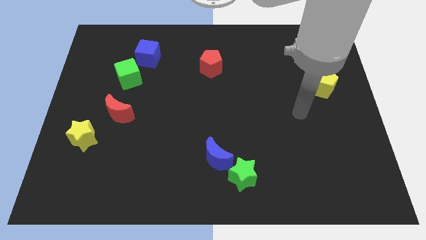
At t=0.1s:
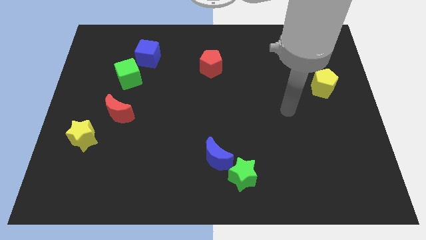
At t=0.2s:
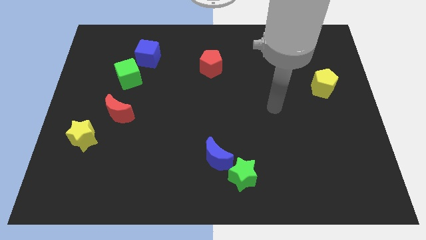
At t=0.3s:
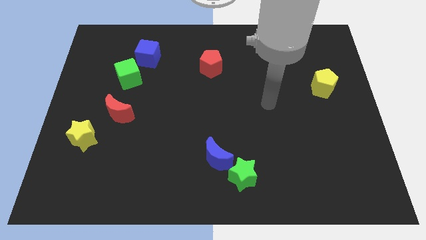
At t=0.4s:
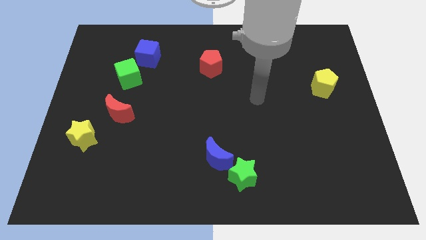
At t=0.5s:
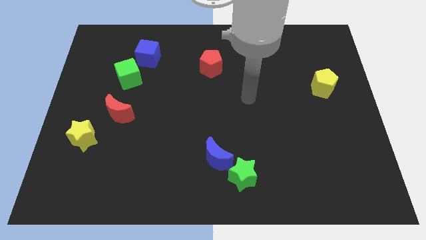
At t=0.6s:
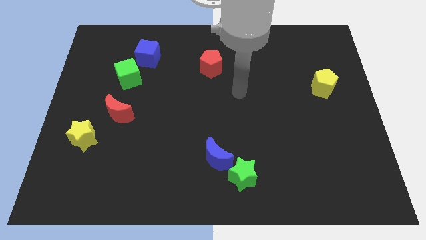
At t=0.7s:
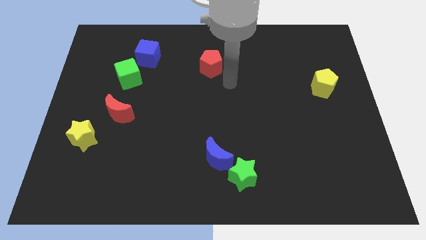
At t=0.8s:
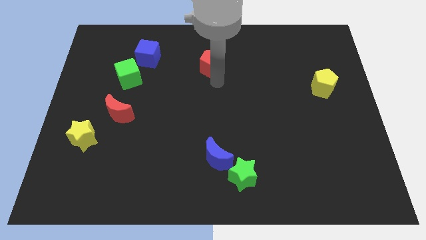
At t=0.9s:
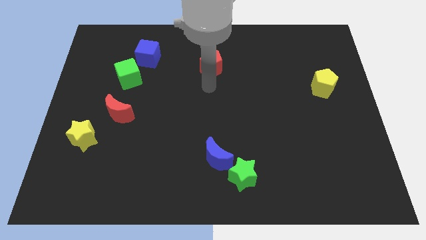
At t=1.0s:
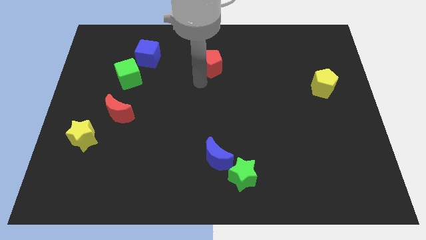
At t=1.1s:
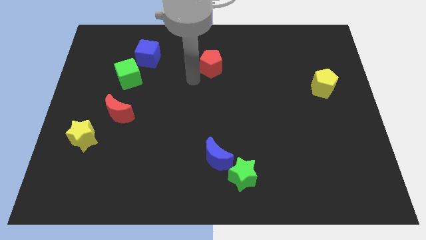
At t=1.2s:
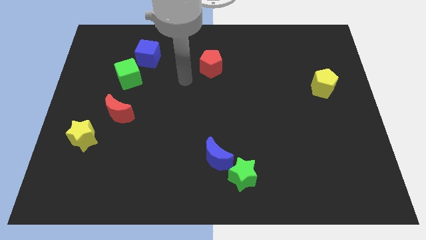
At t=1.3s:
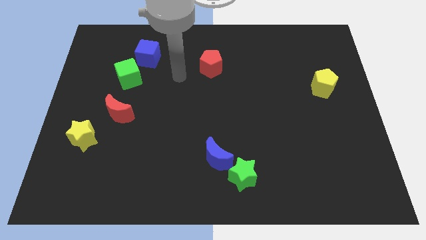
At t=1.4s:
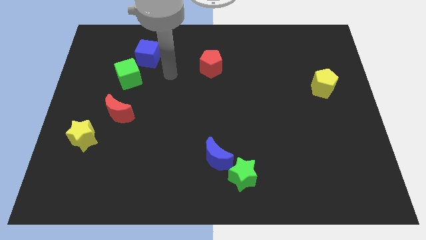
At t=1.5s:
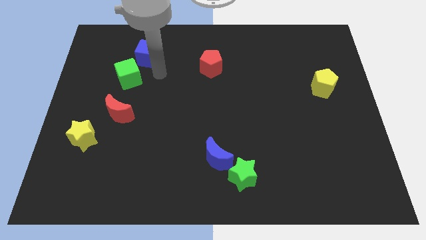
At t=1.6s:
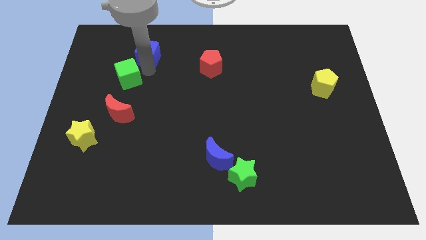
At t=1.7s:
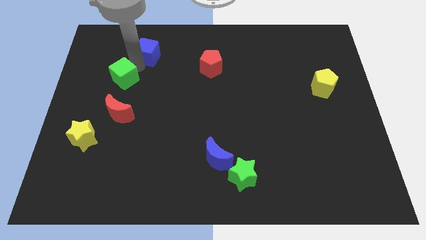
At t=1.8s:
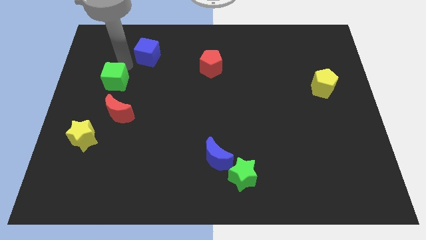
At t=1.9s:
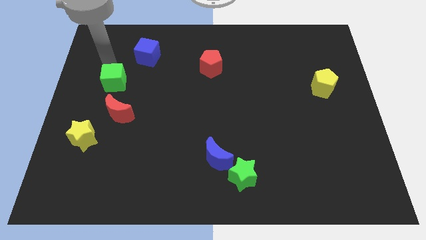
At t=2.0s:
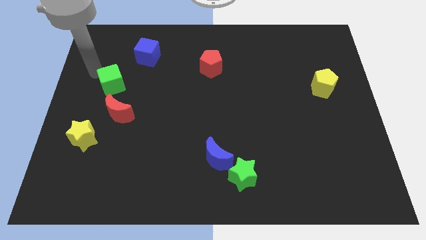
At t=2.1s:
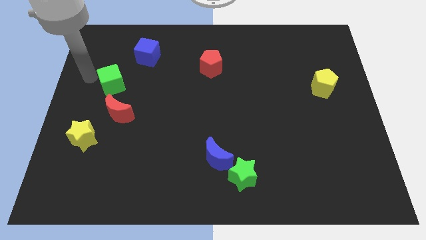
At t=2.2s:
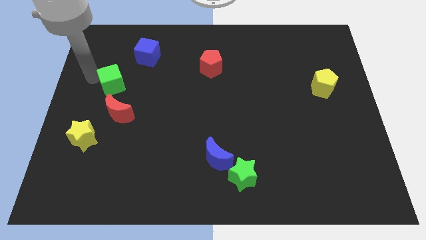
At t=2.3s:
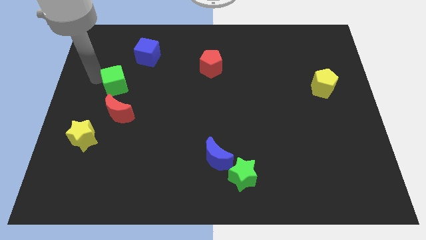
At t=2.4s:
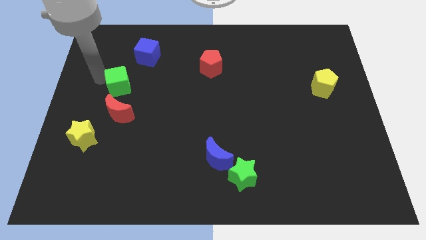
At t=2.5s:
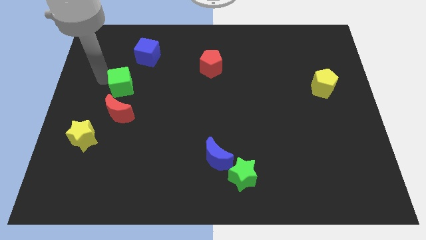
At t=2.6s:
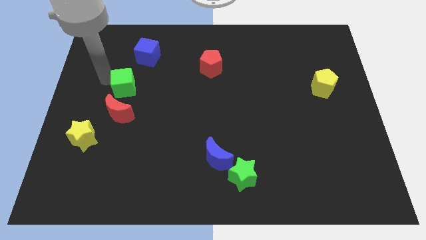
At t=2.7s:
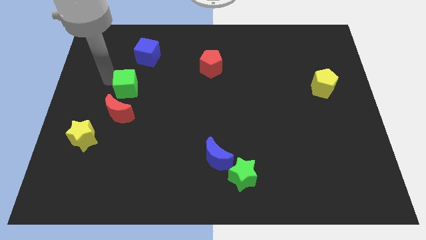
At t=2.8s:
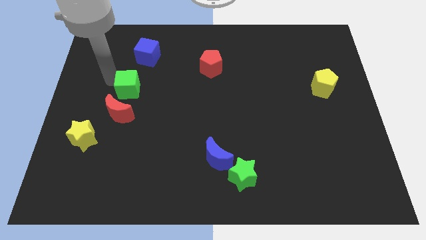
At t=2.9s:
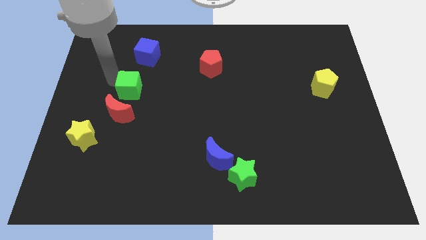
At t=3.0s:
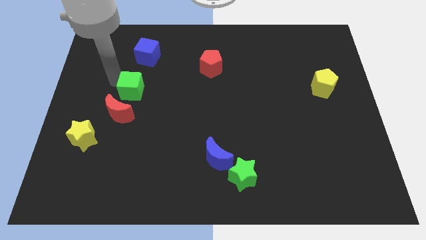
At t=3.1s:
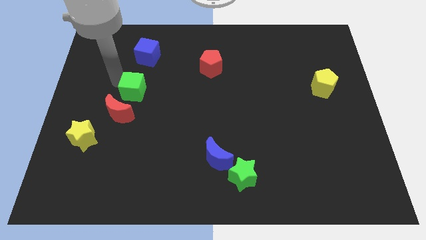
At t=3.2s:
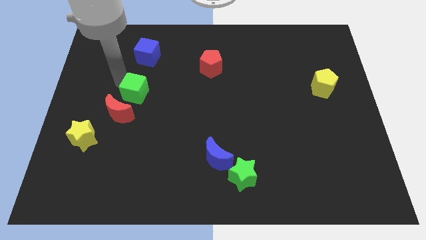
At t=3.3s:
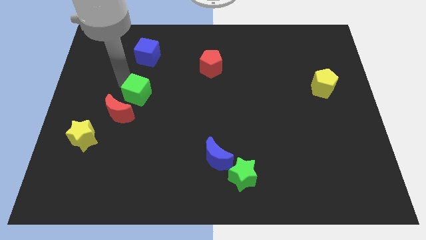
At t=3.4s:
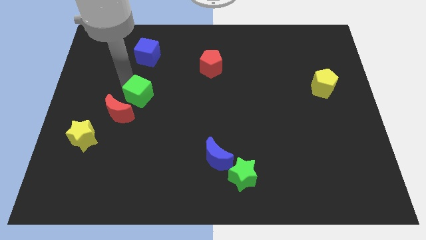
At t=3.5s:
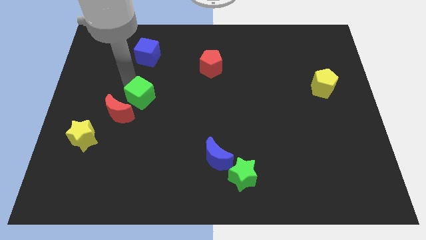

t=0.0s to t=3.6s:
push the green cube a little diagonally downwards and to the right

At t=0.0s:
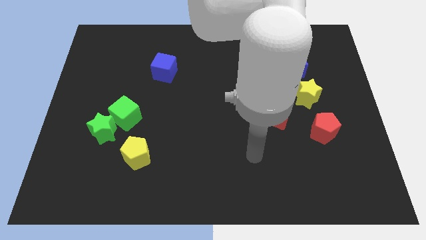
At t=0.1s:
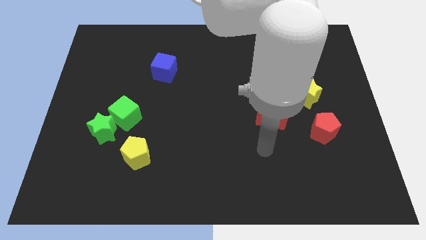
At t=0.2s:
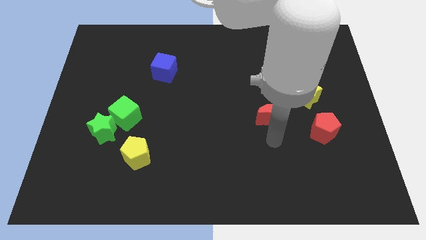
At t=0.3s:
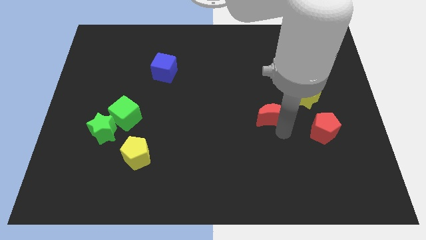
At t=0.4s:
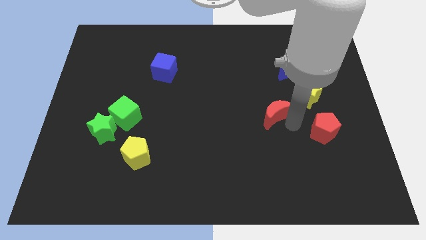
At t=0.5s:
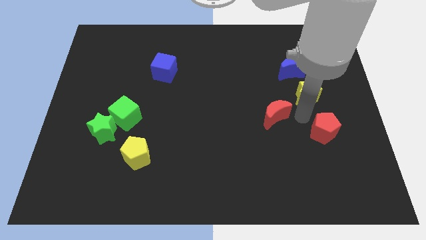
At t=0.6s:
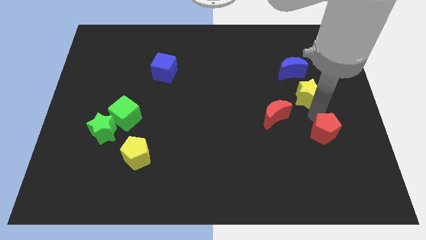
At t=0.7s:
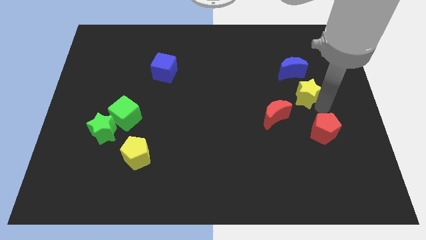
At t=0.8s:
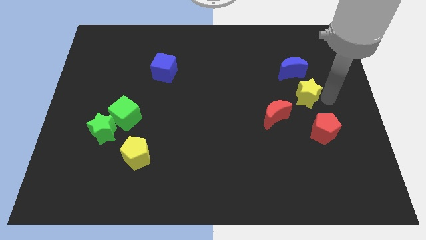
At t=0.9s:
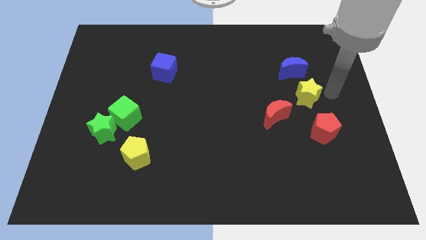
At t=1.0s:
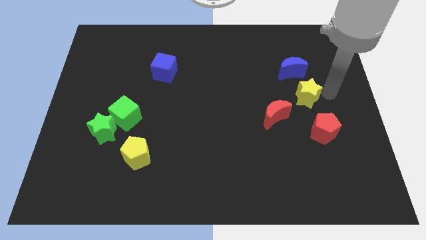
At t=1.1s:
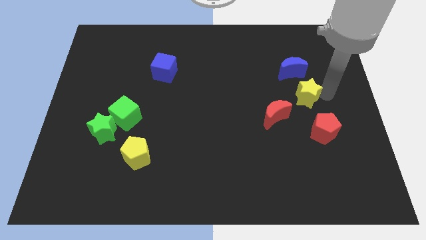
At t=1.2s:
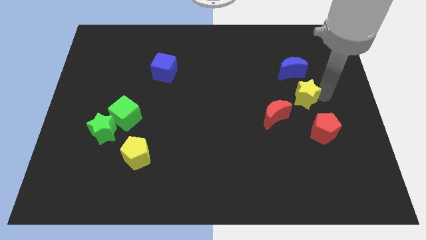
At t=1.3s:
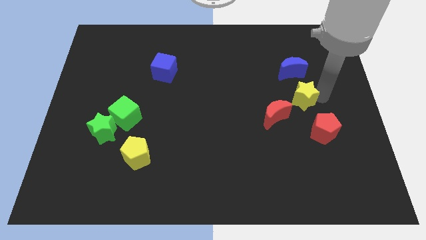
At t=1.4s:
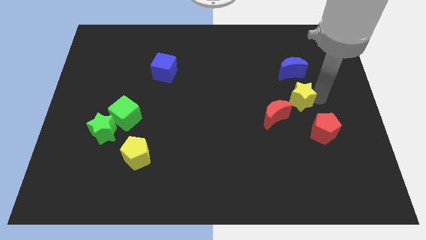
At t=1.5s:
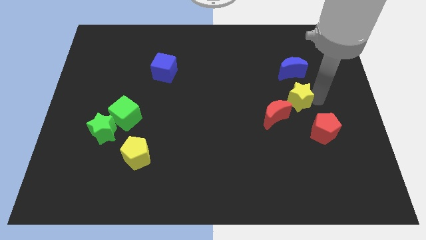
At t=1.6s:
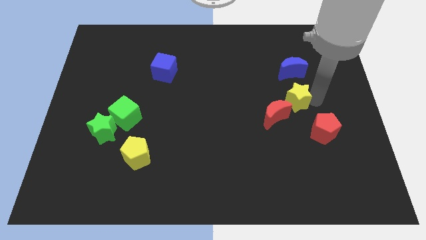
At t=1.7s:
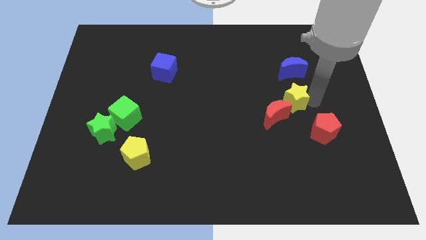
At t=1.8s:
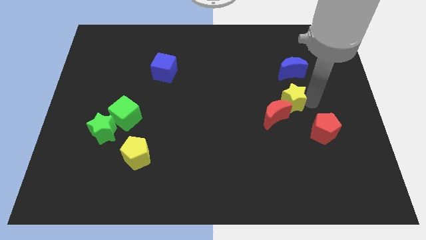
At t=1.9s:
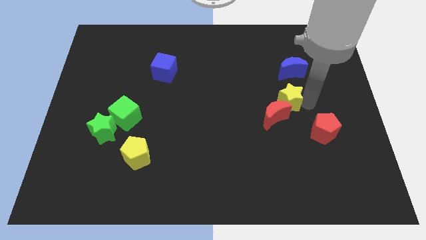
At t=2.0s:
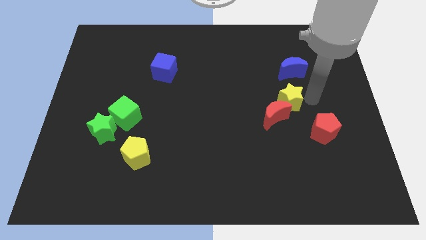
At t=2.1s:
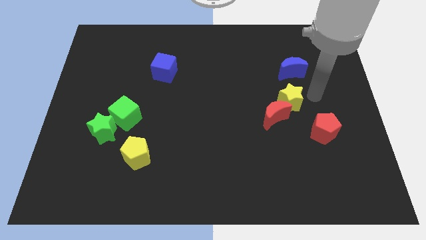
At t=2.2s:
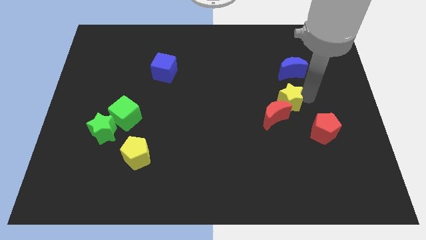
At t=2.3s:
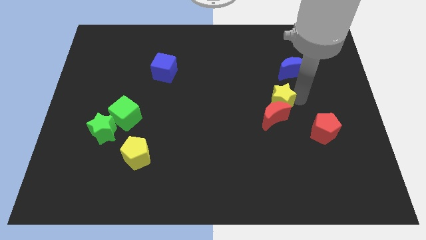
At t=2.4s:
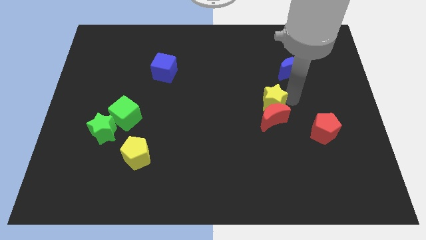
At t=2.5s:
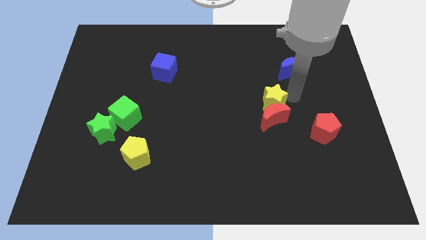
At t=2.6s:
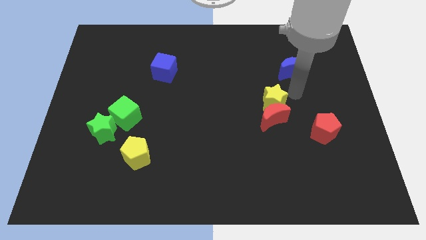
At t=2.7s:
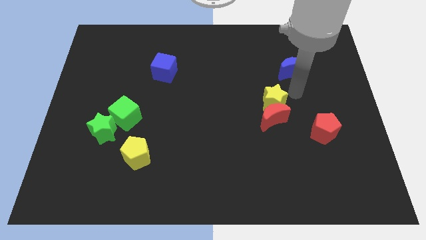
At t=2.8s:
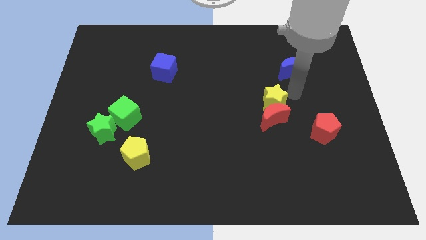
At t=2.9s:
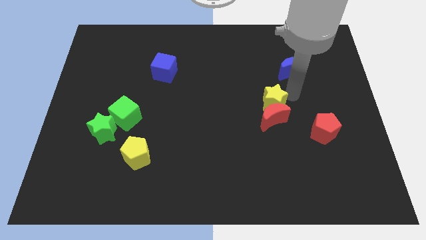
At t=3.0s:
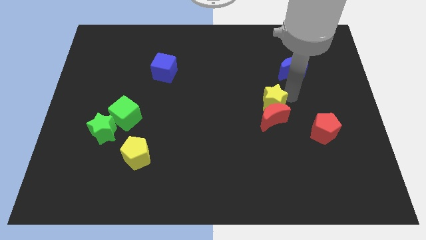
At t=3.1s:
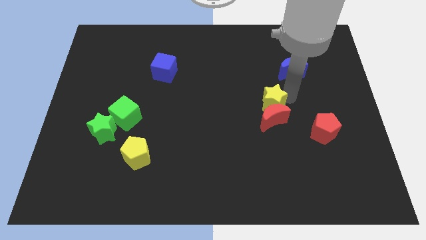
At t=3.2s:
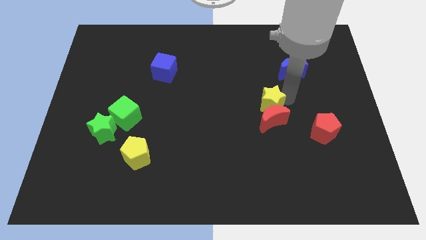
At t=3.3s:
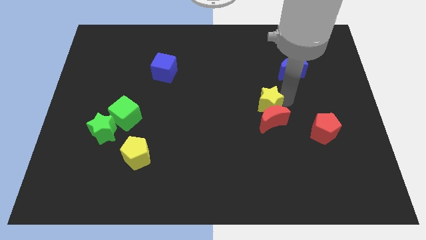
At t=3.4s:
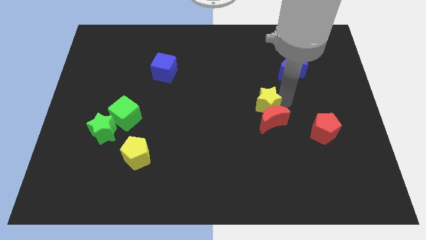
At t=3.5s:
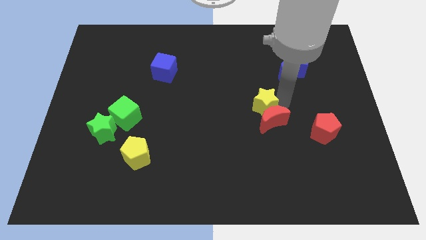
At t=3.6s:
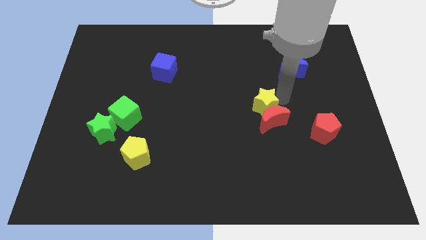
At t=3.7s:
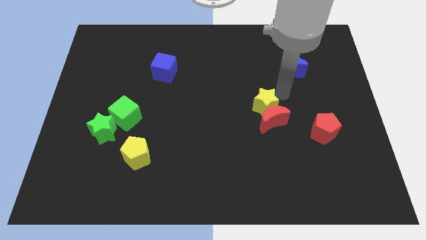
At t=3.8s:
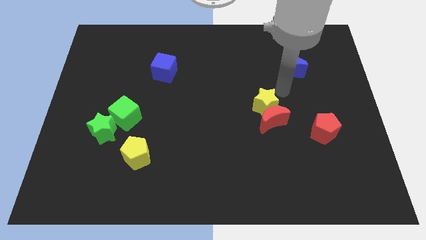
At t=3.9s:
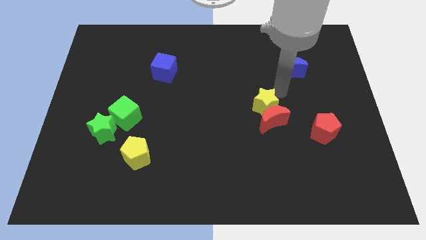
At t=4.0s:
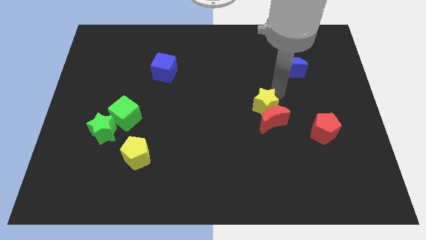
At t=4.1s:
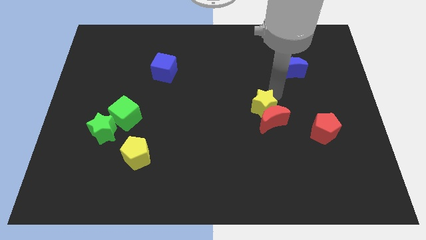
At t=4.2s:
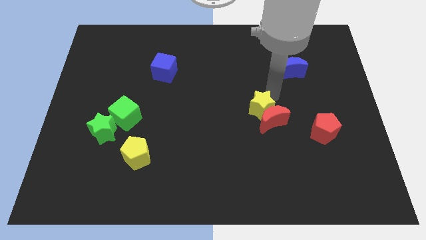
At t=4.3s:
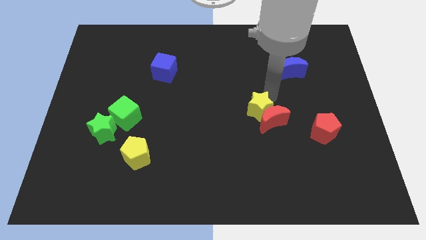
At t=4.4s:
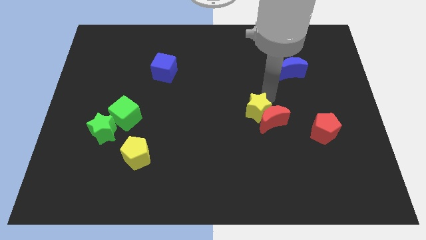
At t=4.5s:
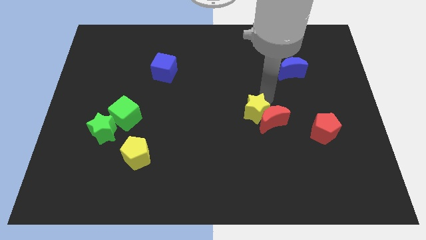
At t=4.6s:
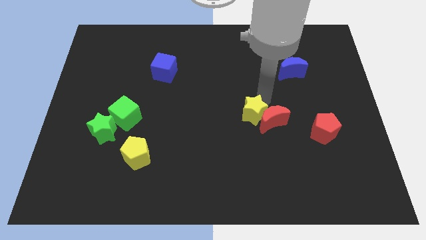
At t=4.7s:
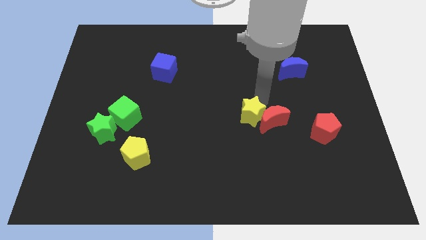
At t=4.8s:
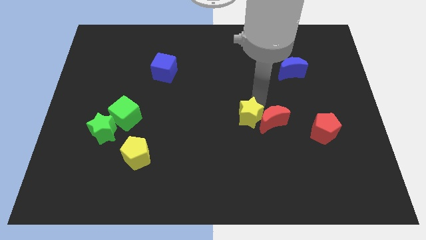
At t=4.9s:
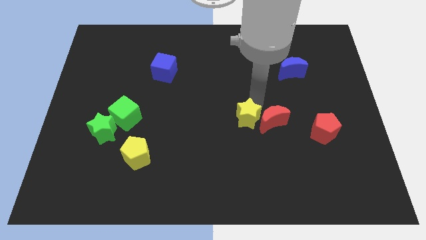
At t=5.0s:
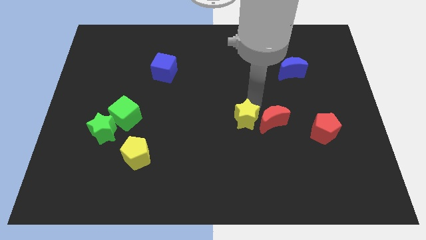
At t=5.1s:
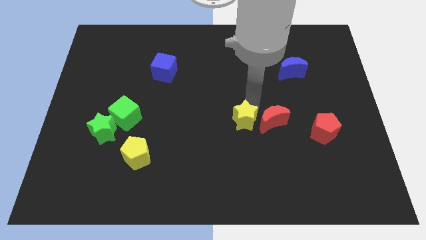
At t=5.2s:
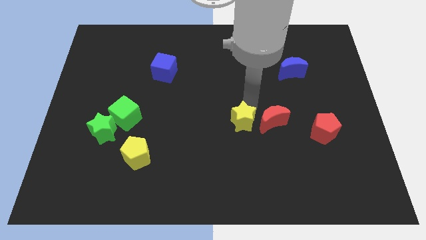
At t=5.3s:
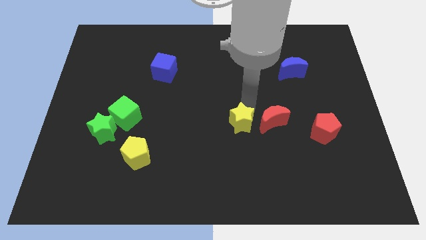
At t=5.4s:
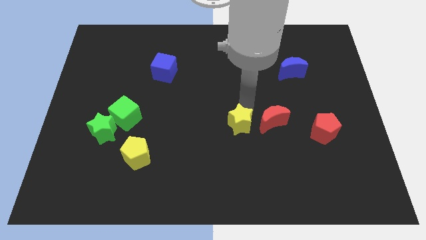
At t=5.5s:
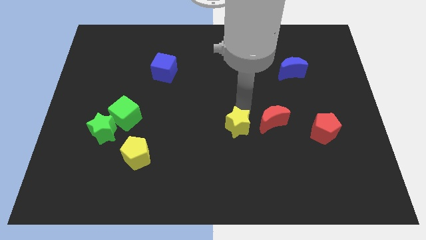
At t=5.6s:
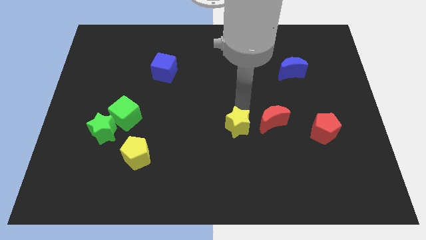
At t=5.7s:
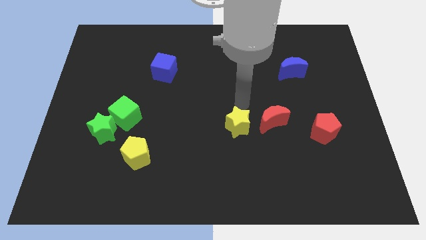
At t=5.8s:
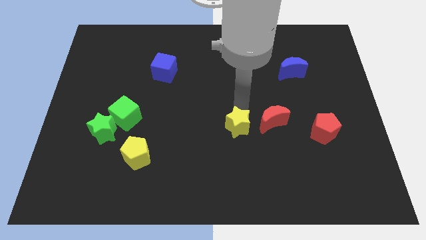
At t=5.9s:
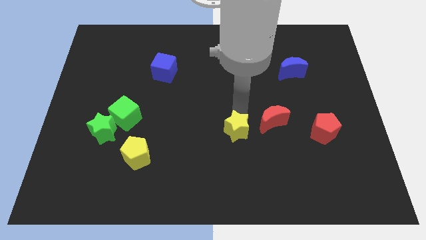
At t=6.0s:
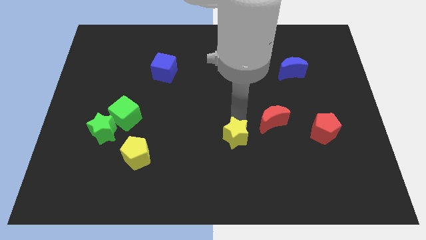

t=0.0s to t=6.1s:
move the yellow star downwards and to the left diagonally
